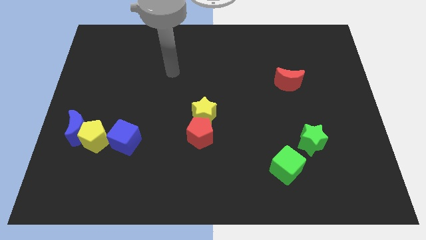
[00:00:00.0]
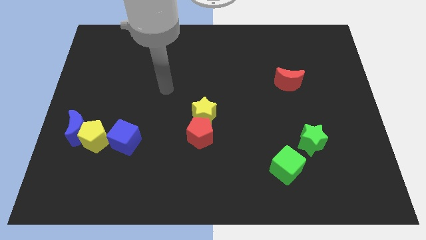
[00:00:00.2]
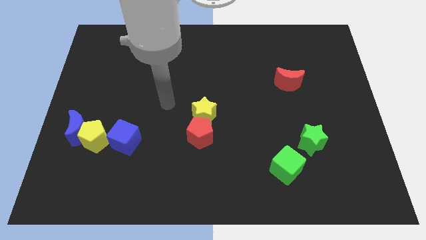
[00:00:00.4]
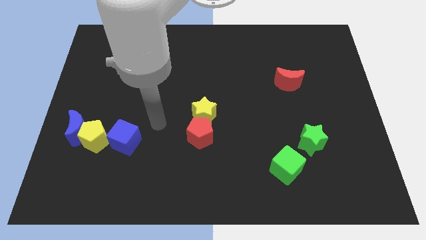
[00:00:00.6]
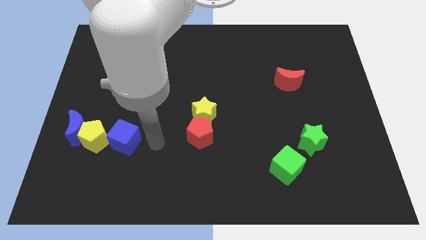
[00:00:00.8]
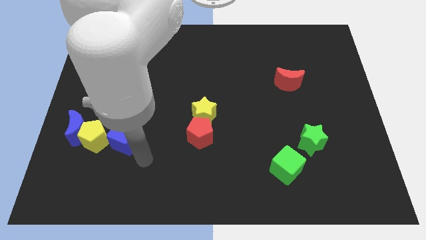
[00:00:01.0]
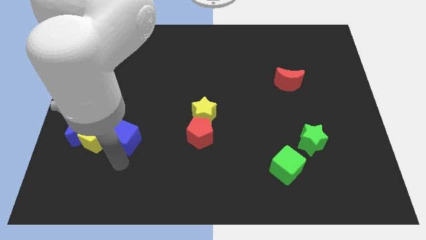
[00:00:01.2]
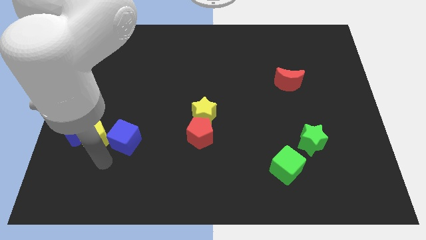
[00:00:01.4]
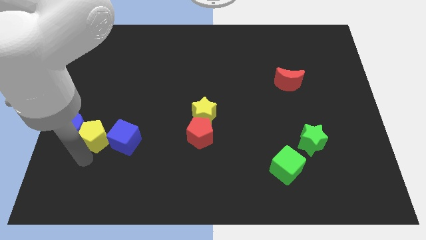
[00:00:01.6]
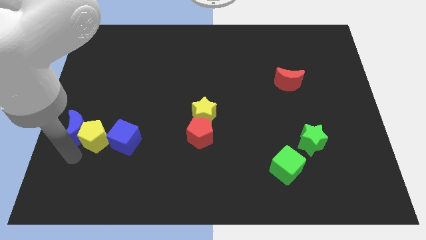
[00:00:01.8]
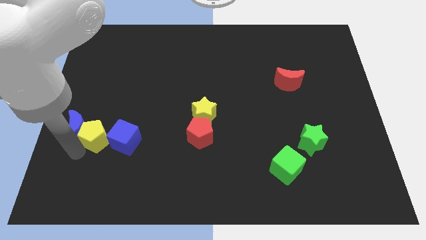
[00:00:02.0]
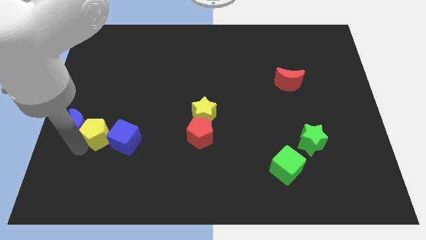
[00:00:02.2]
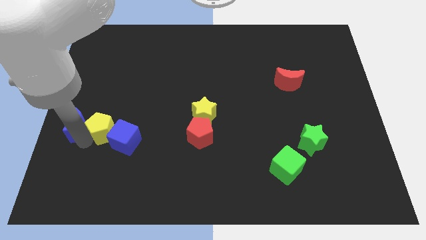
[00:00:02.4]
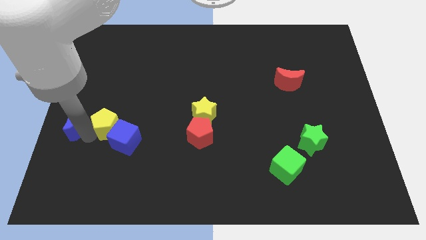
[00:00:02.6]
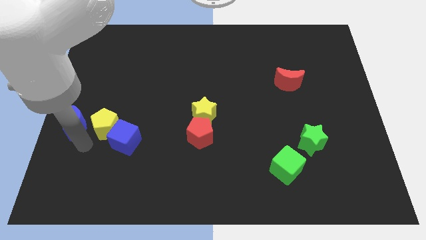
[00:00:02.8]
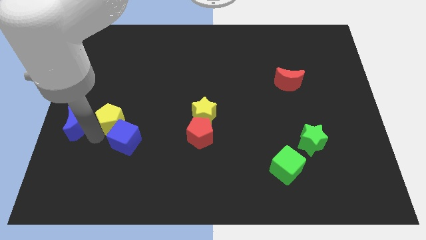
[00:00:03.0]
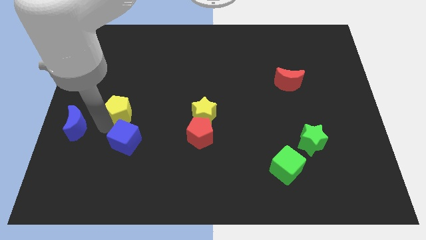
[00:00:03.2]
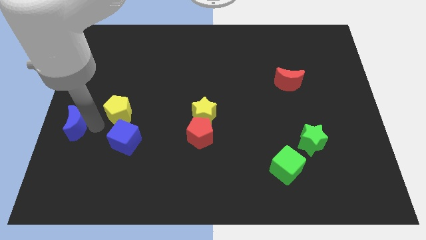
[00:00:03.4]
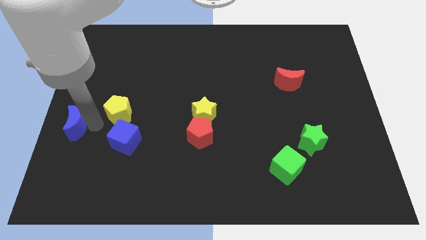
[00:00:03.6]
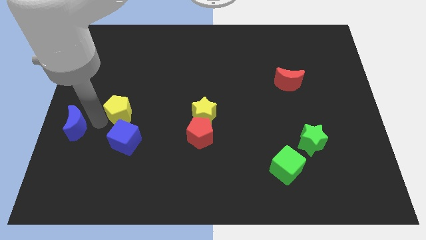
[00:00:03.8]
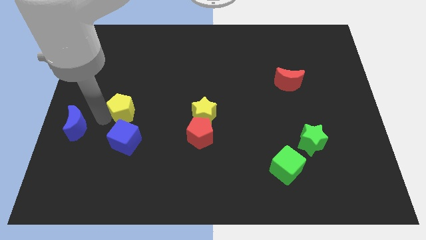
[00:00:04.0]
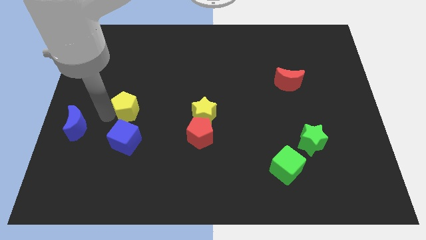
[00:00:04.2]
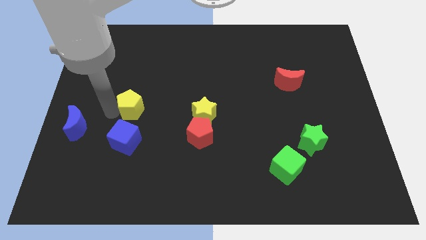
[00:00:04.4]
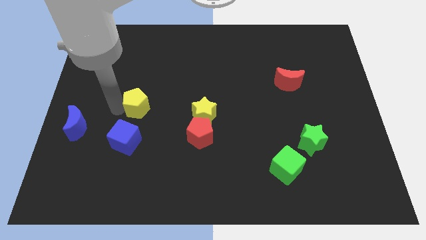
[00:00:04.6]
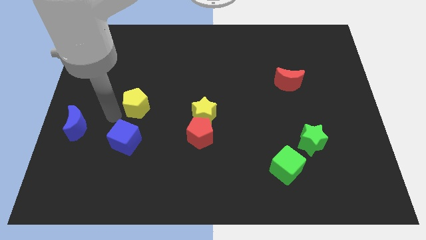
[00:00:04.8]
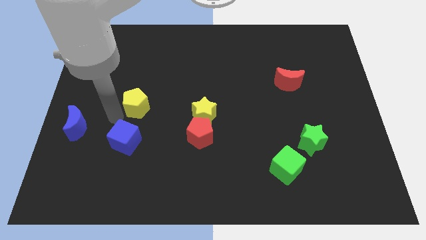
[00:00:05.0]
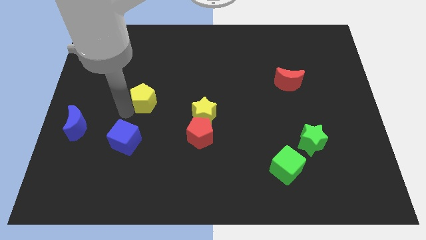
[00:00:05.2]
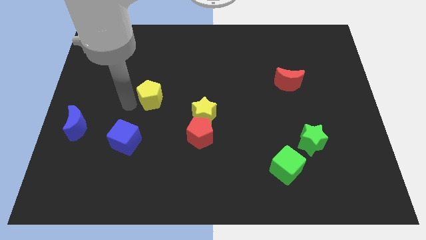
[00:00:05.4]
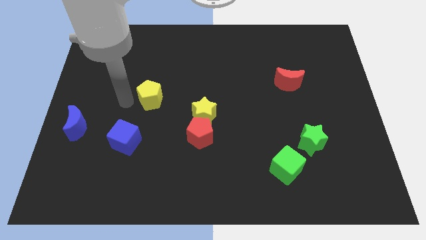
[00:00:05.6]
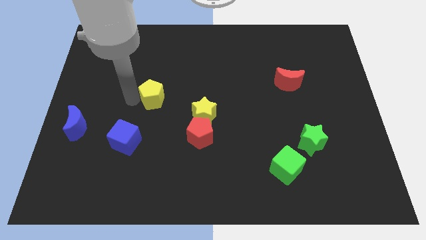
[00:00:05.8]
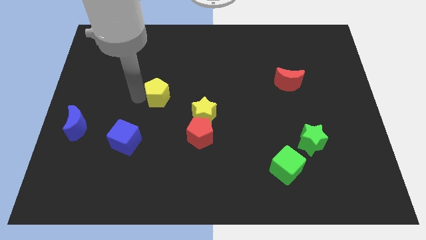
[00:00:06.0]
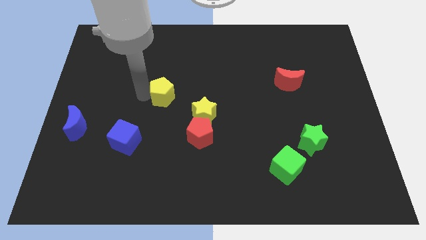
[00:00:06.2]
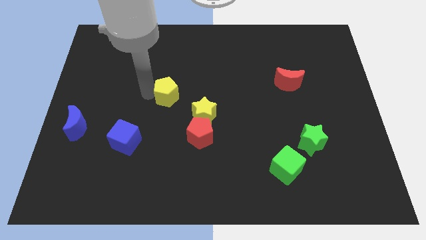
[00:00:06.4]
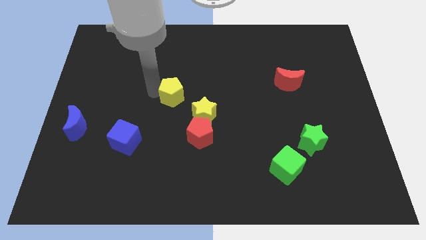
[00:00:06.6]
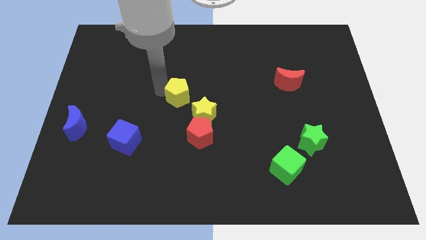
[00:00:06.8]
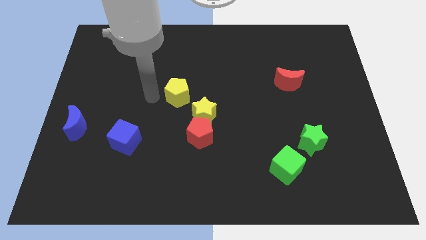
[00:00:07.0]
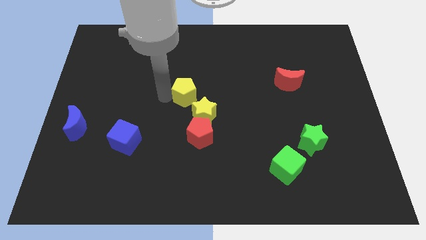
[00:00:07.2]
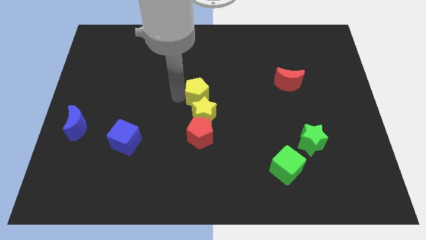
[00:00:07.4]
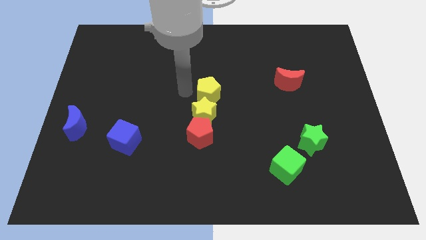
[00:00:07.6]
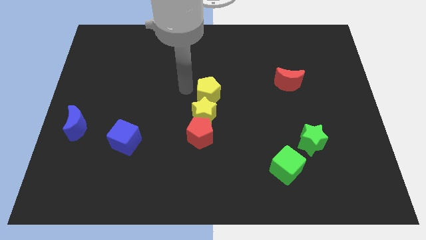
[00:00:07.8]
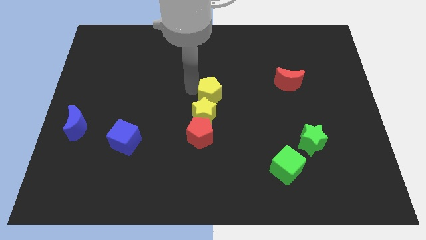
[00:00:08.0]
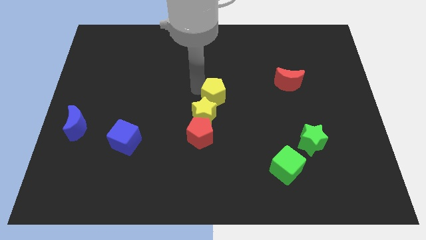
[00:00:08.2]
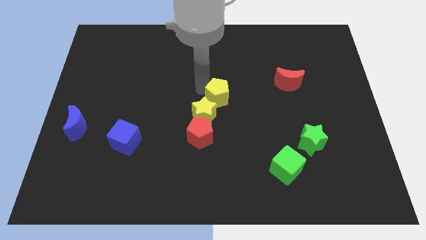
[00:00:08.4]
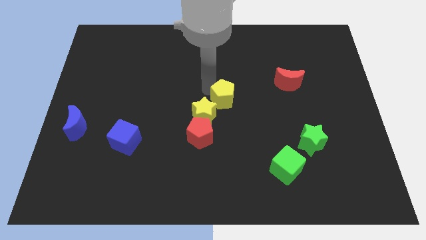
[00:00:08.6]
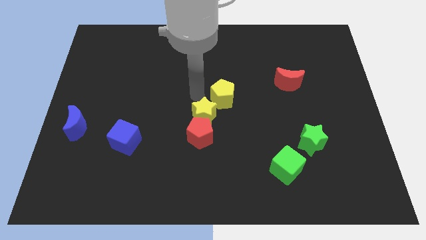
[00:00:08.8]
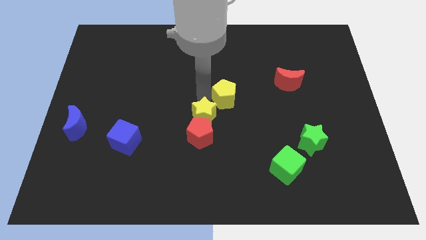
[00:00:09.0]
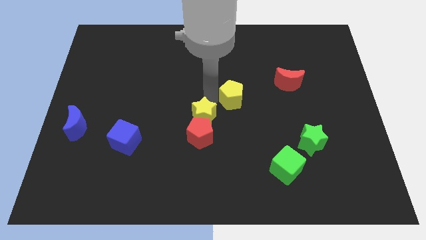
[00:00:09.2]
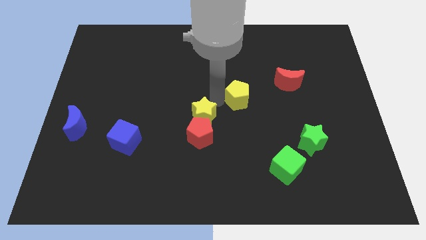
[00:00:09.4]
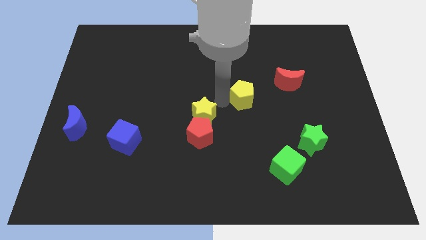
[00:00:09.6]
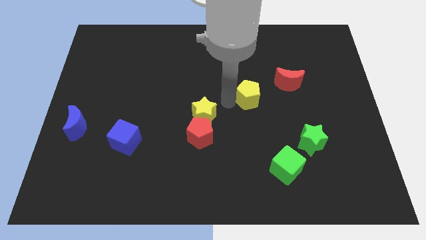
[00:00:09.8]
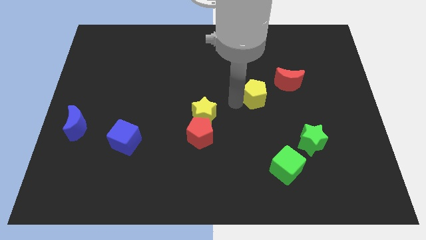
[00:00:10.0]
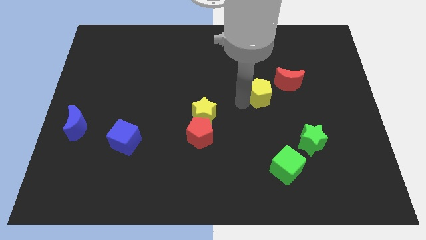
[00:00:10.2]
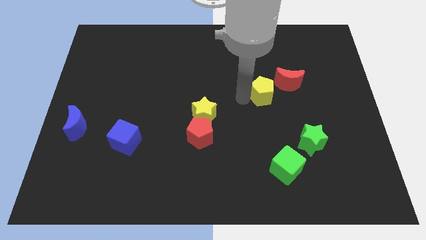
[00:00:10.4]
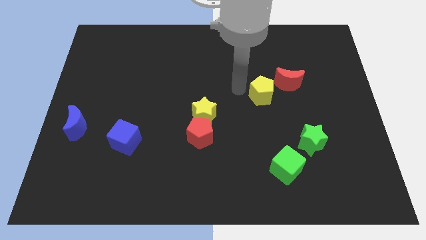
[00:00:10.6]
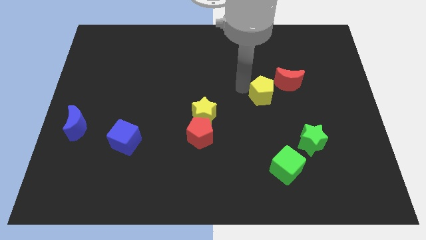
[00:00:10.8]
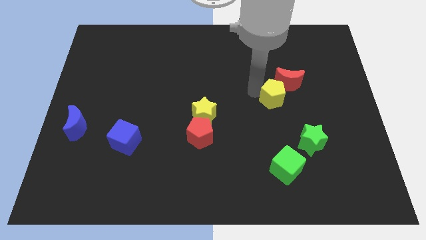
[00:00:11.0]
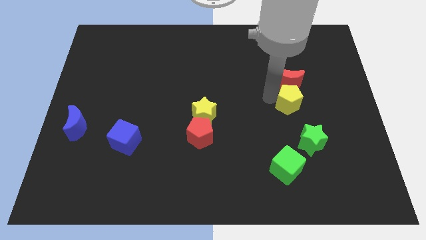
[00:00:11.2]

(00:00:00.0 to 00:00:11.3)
put the yellow pentagon to the bottom right of the red moon

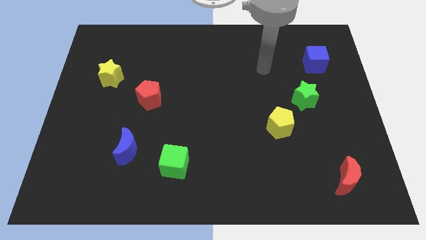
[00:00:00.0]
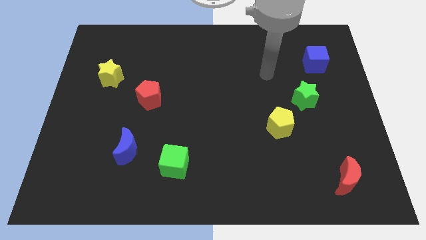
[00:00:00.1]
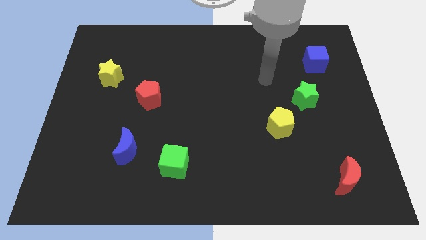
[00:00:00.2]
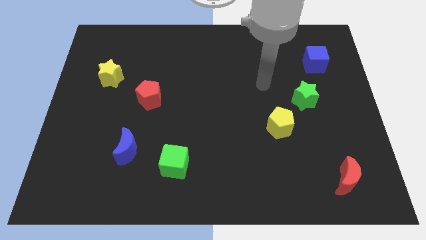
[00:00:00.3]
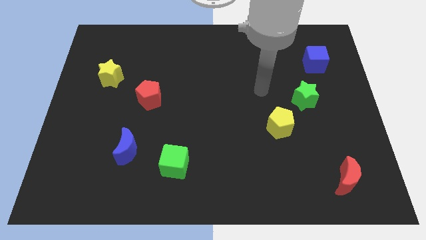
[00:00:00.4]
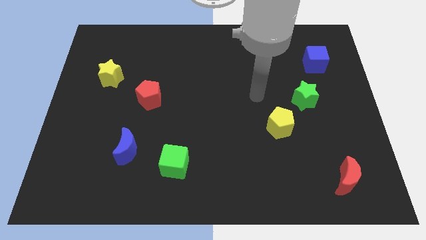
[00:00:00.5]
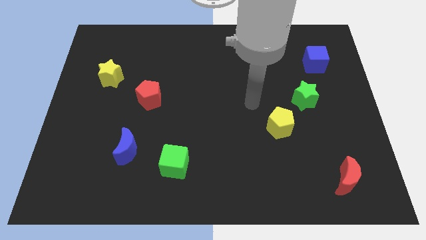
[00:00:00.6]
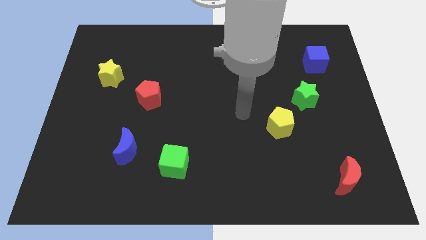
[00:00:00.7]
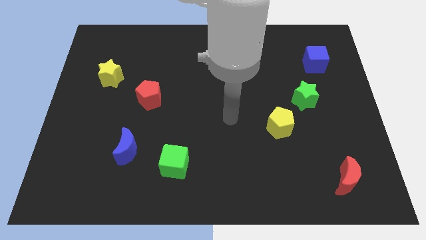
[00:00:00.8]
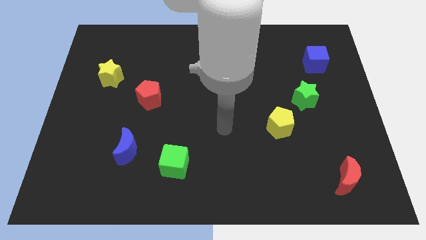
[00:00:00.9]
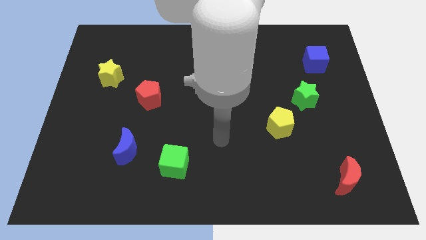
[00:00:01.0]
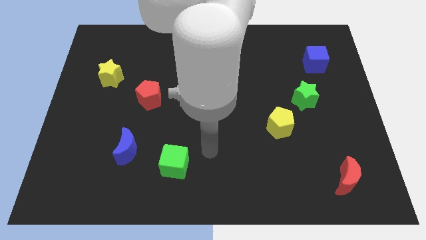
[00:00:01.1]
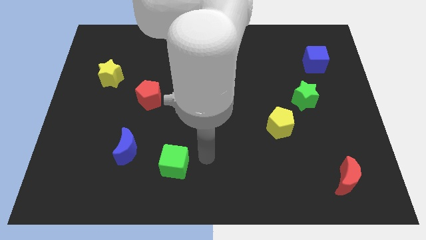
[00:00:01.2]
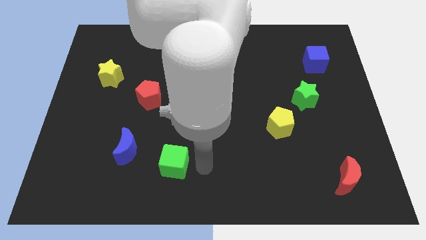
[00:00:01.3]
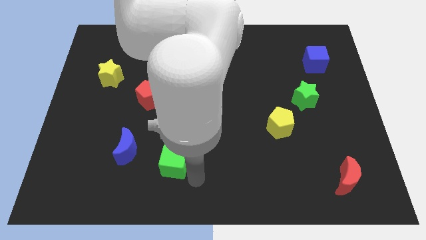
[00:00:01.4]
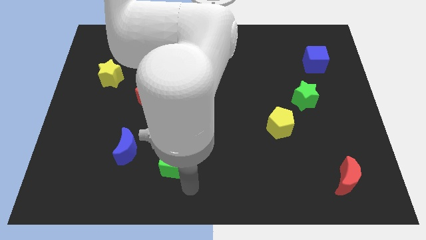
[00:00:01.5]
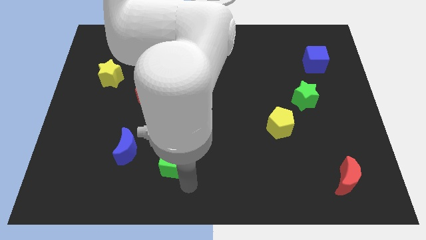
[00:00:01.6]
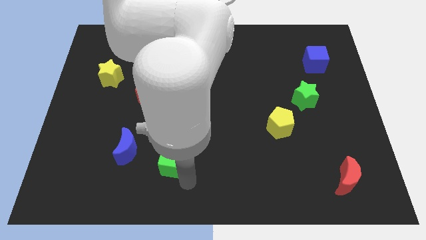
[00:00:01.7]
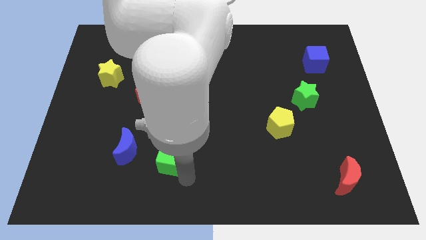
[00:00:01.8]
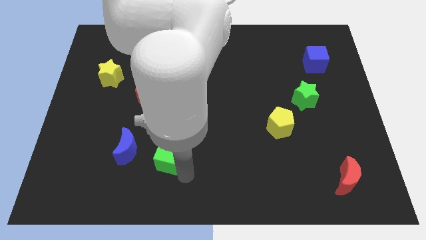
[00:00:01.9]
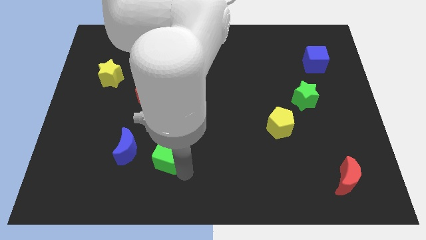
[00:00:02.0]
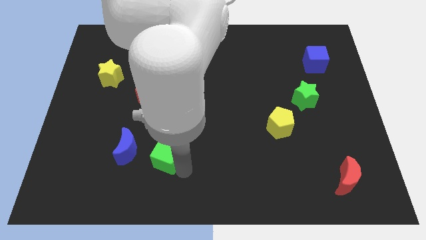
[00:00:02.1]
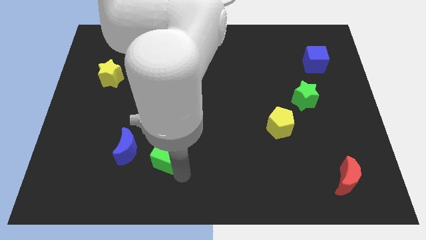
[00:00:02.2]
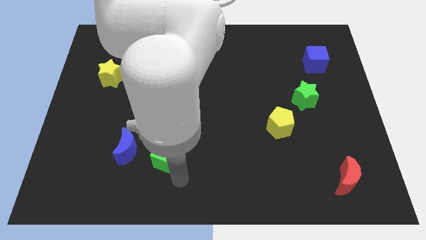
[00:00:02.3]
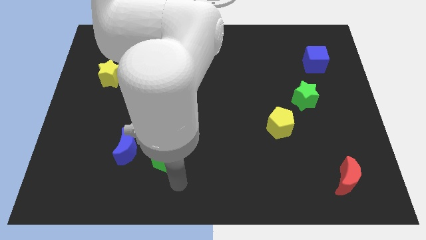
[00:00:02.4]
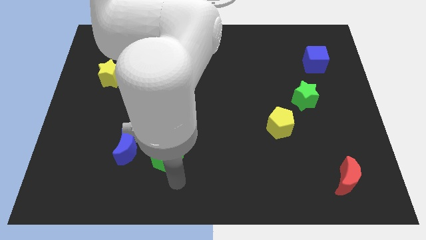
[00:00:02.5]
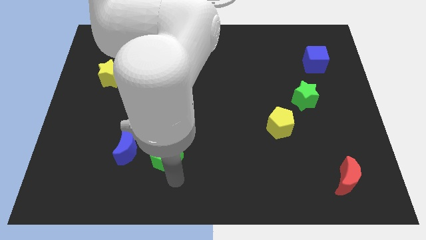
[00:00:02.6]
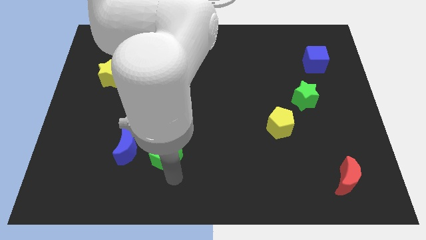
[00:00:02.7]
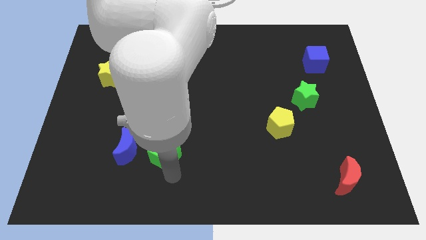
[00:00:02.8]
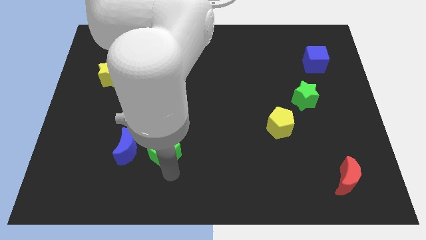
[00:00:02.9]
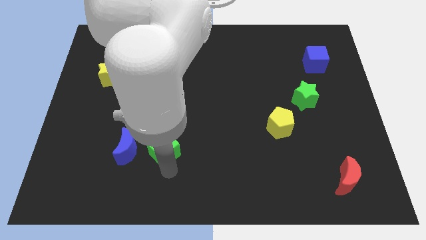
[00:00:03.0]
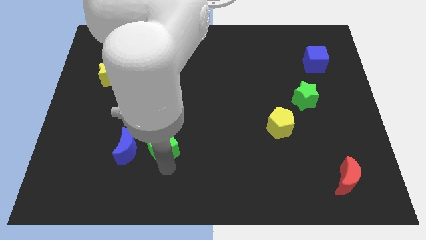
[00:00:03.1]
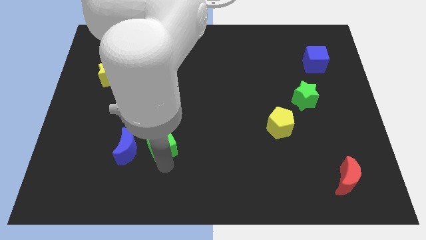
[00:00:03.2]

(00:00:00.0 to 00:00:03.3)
slide the green cube to the top right of the blue moon
